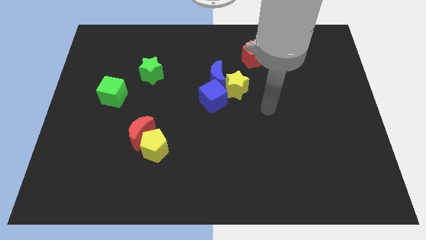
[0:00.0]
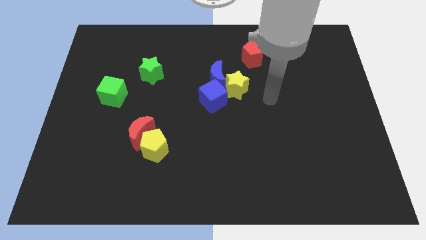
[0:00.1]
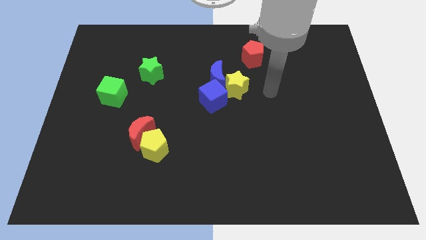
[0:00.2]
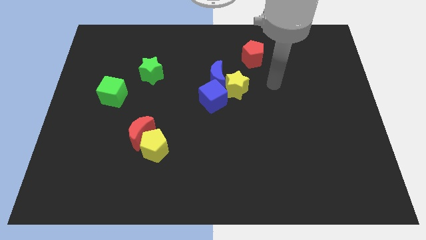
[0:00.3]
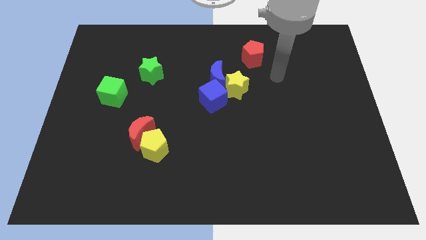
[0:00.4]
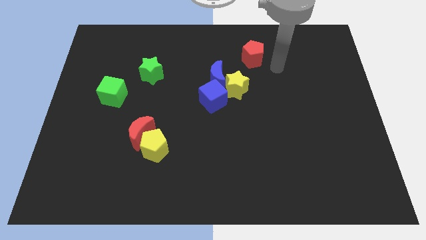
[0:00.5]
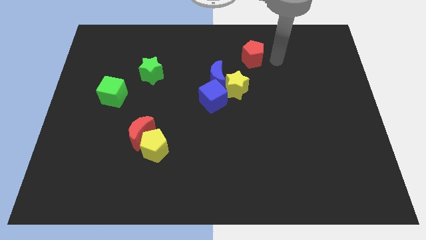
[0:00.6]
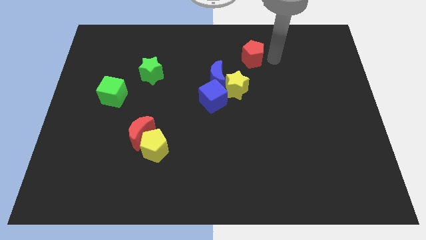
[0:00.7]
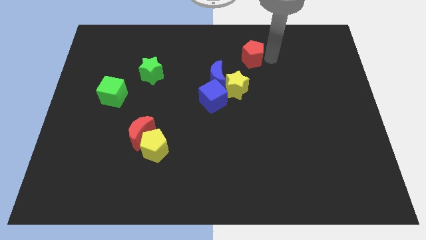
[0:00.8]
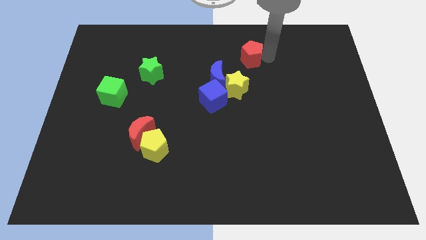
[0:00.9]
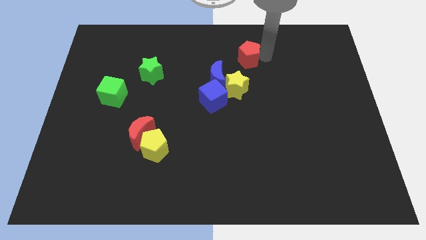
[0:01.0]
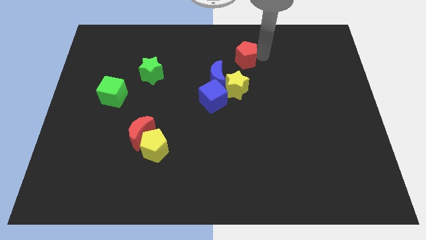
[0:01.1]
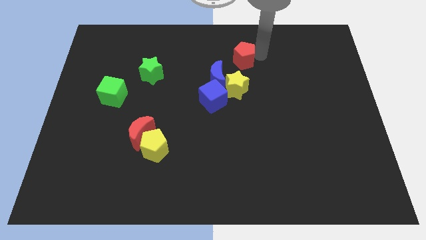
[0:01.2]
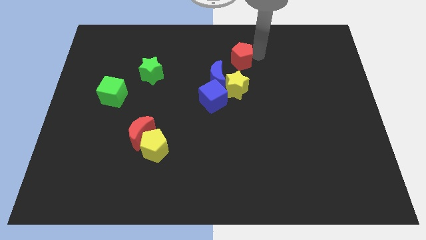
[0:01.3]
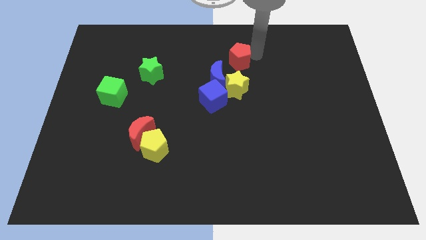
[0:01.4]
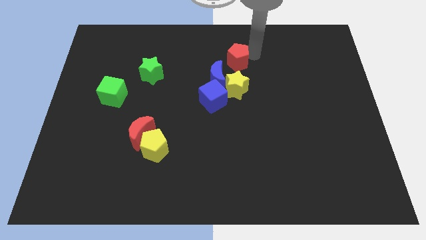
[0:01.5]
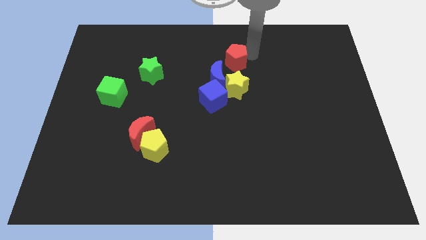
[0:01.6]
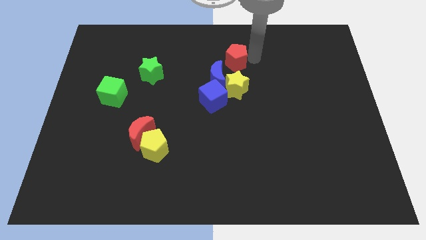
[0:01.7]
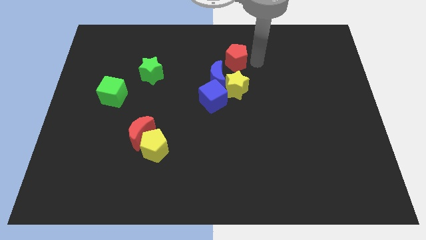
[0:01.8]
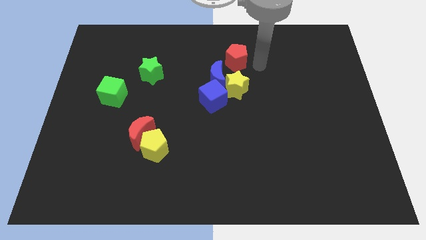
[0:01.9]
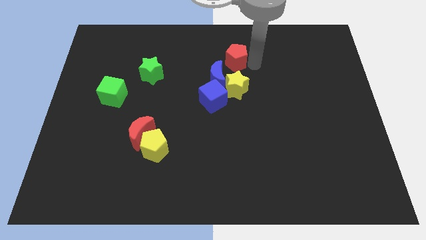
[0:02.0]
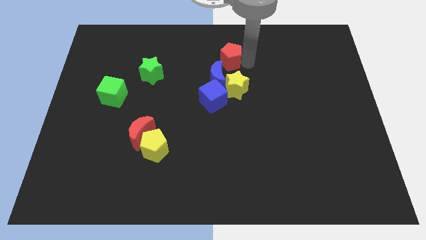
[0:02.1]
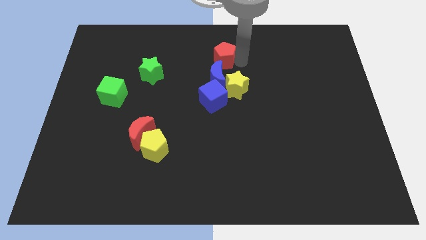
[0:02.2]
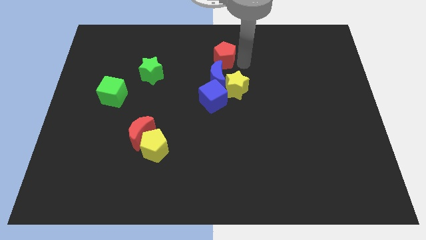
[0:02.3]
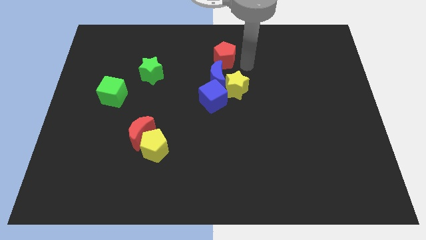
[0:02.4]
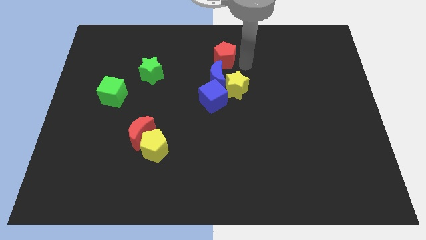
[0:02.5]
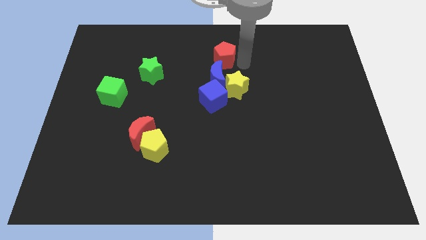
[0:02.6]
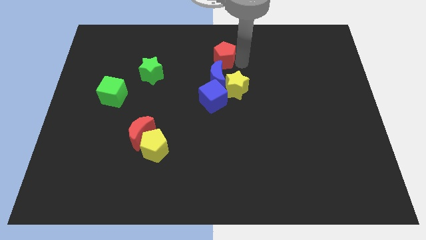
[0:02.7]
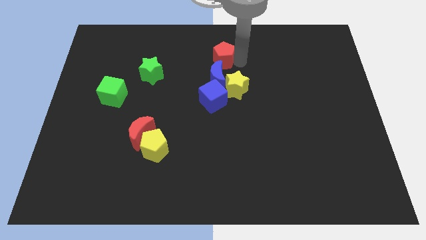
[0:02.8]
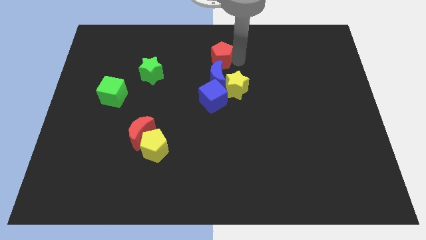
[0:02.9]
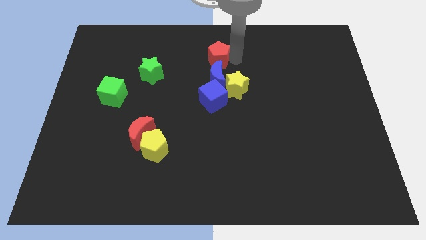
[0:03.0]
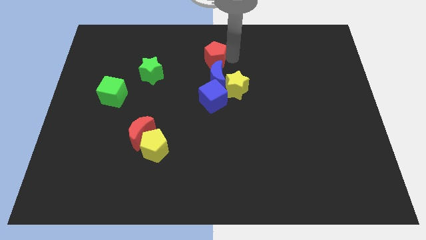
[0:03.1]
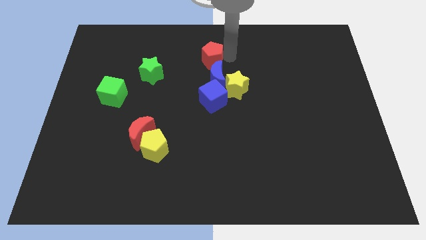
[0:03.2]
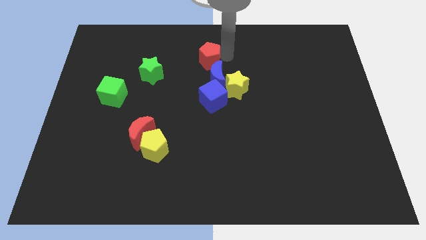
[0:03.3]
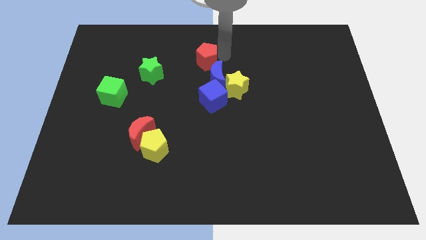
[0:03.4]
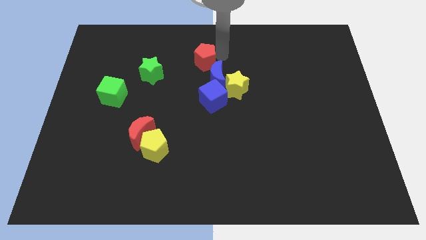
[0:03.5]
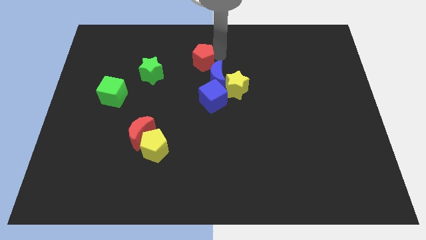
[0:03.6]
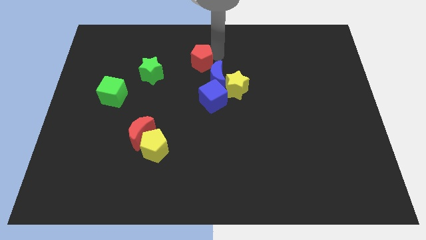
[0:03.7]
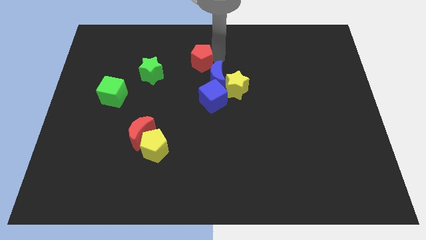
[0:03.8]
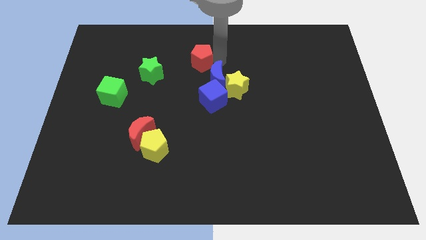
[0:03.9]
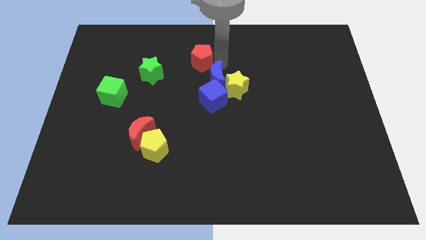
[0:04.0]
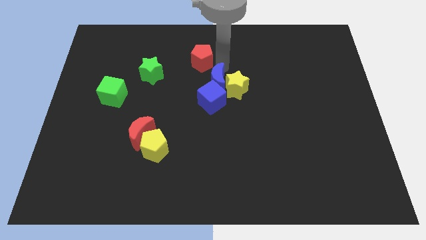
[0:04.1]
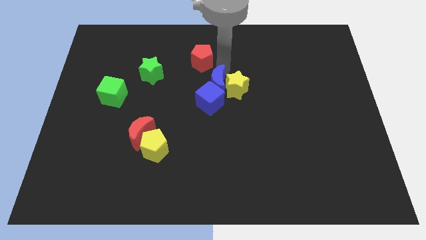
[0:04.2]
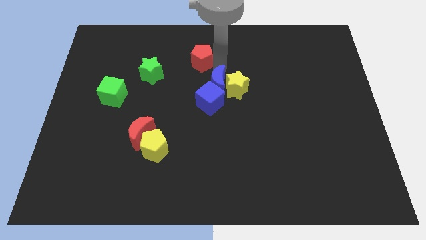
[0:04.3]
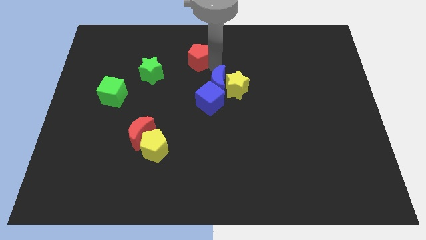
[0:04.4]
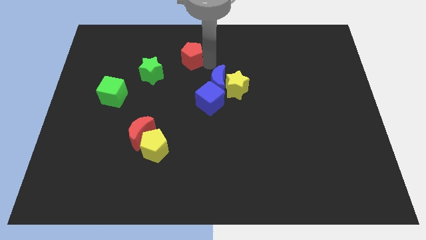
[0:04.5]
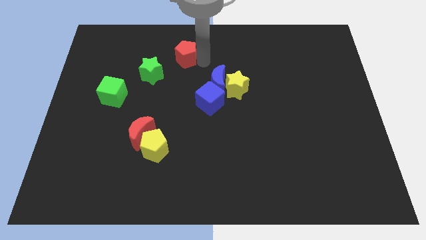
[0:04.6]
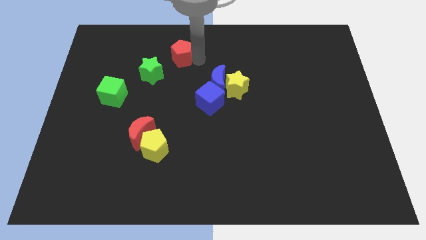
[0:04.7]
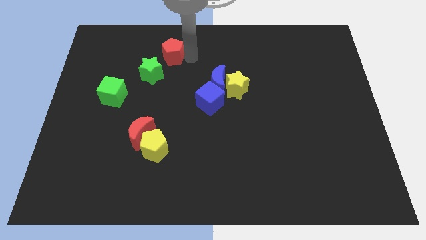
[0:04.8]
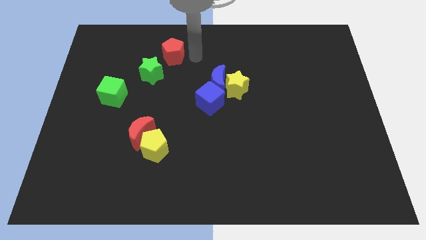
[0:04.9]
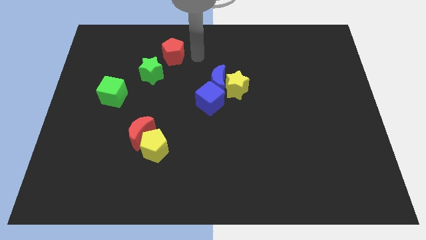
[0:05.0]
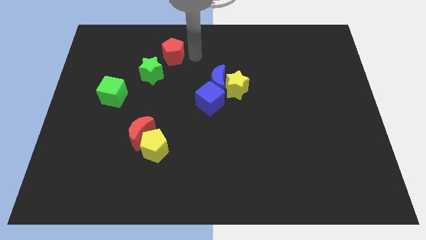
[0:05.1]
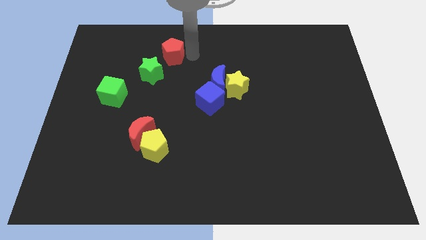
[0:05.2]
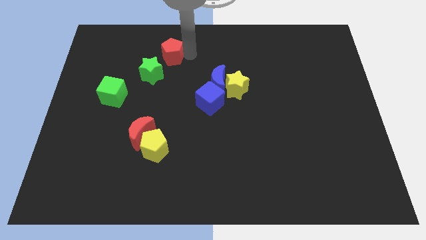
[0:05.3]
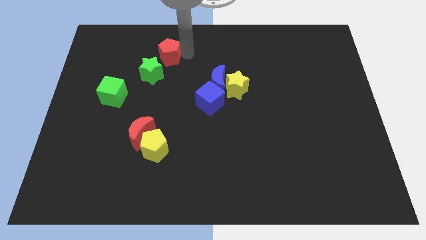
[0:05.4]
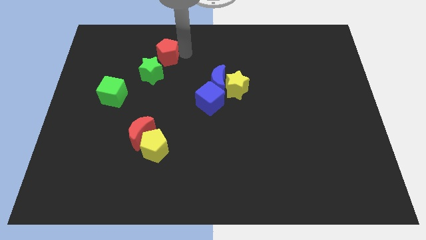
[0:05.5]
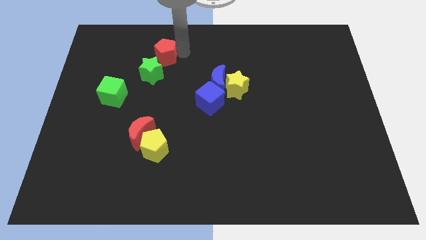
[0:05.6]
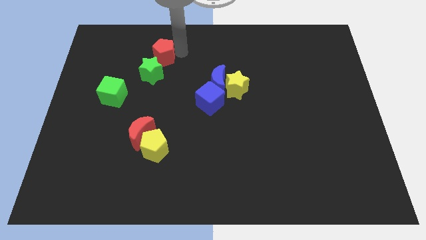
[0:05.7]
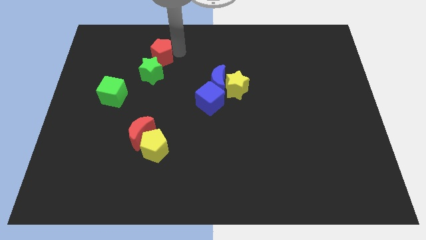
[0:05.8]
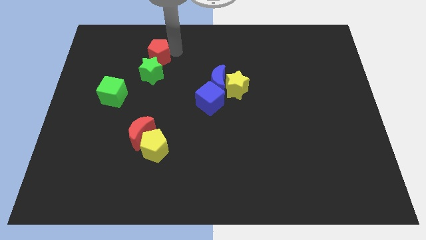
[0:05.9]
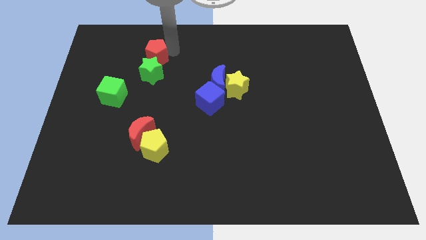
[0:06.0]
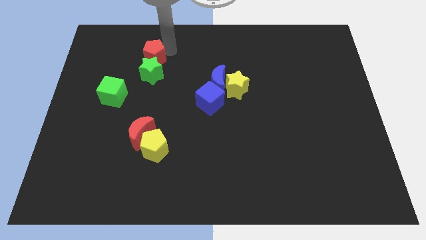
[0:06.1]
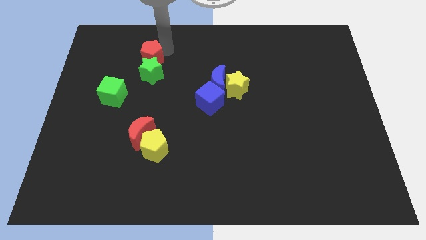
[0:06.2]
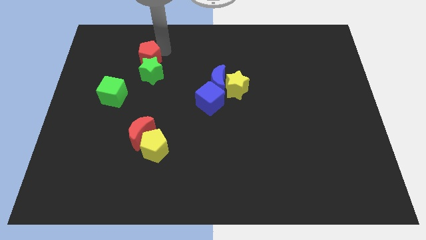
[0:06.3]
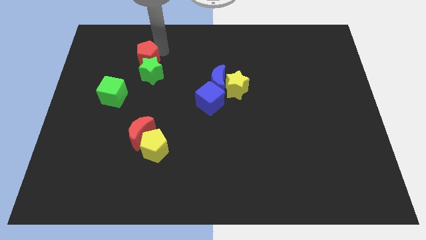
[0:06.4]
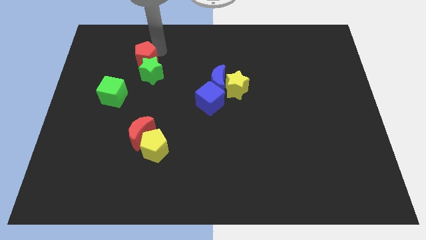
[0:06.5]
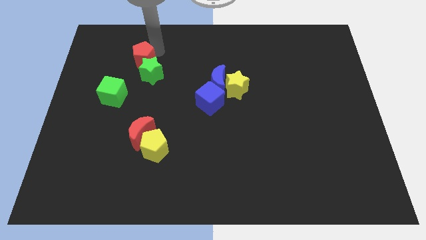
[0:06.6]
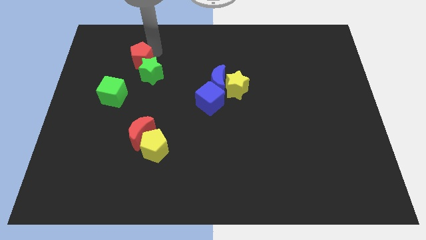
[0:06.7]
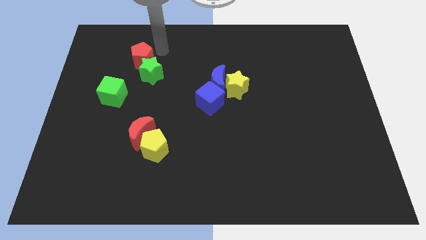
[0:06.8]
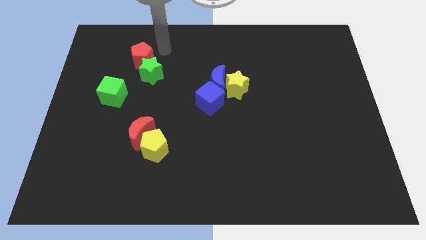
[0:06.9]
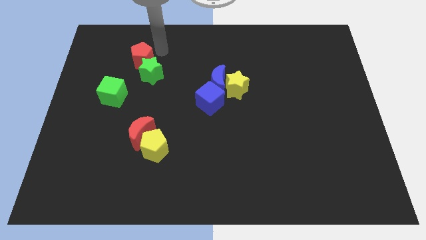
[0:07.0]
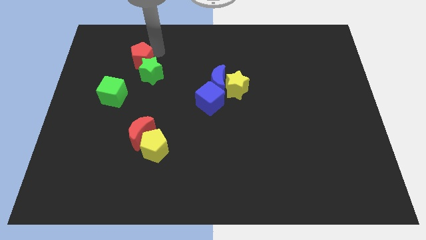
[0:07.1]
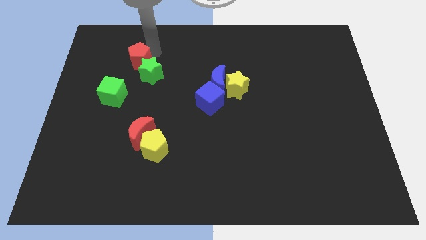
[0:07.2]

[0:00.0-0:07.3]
slide the red pentagon to the left side of the green star
